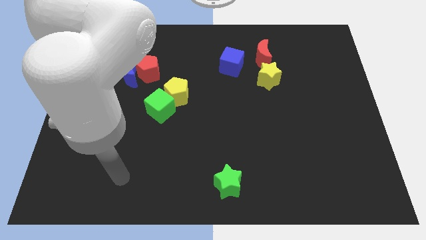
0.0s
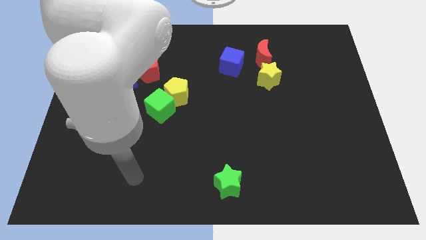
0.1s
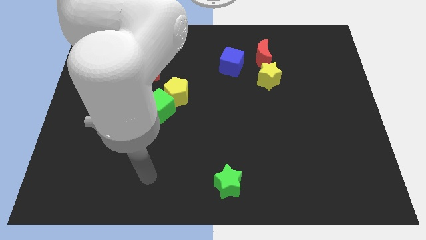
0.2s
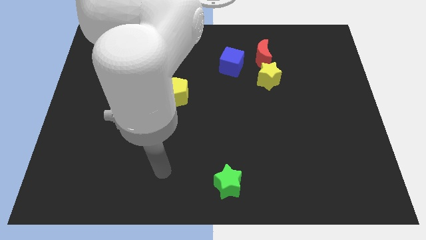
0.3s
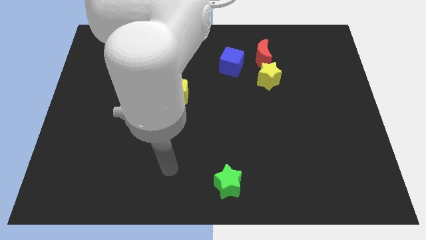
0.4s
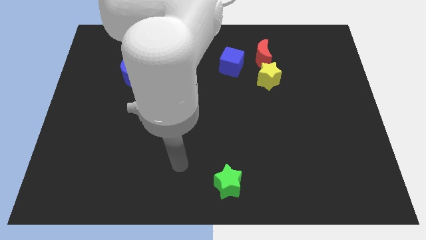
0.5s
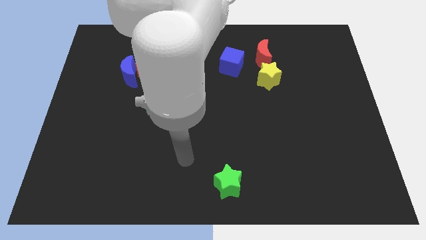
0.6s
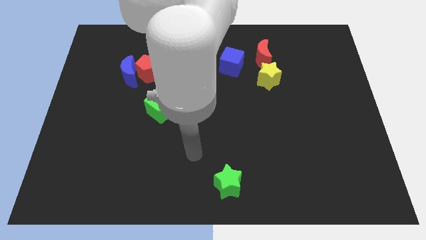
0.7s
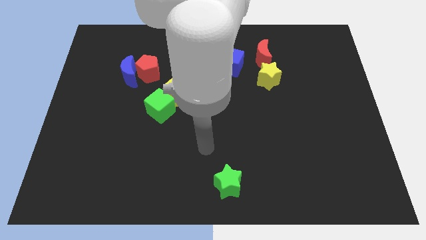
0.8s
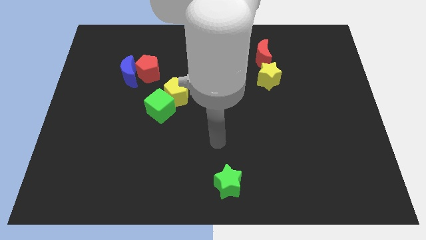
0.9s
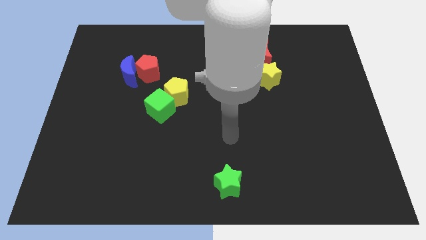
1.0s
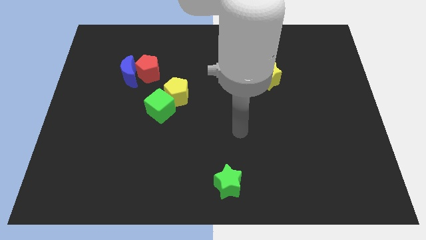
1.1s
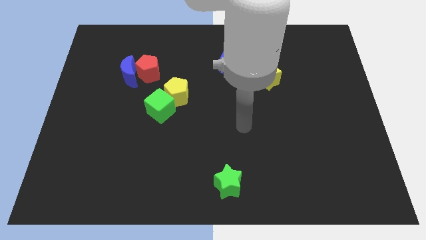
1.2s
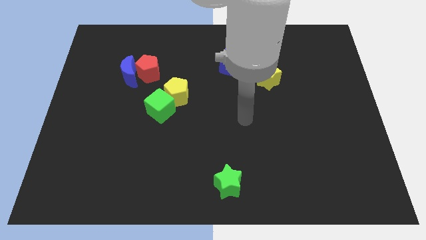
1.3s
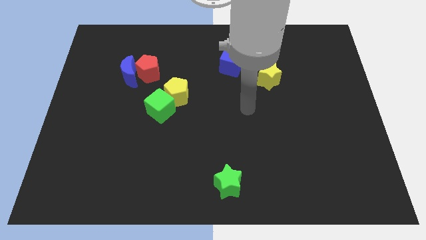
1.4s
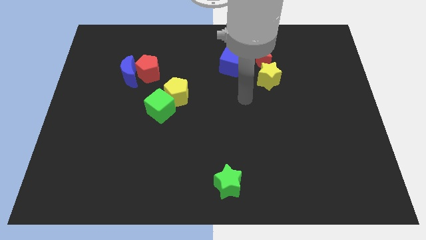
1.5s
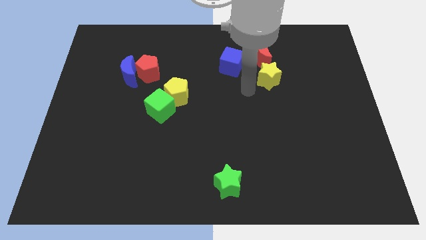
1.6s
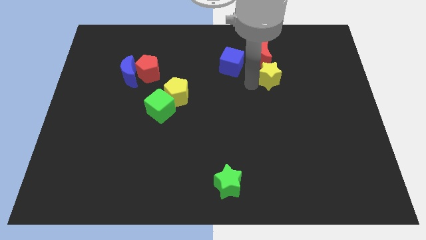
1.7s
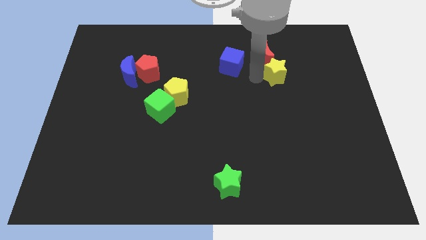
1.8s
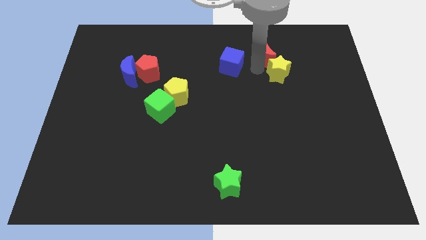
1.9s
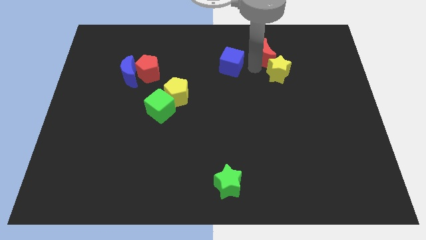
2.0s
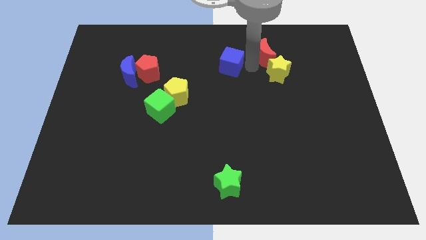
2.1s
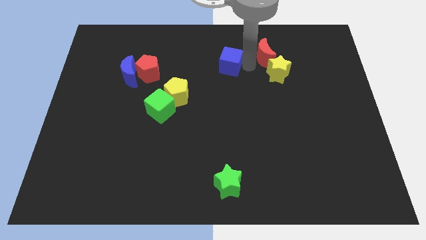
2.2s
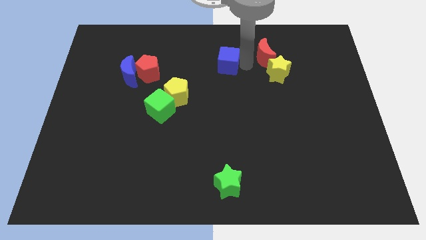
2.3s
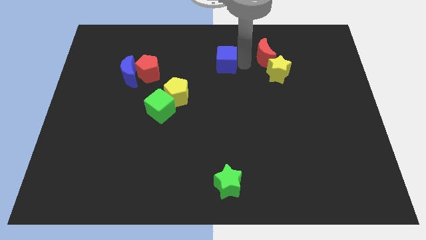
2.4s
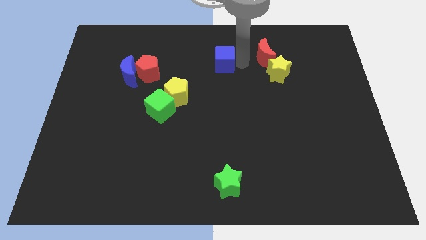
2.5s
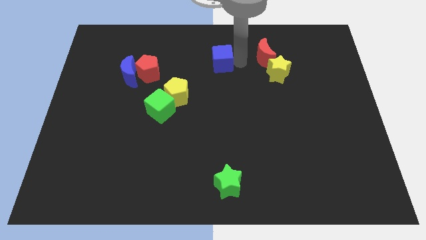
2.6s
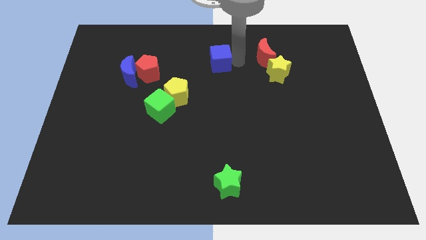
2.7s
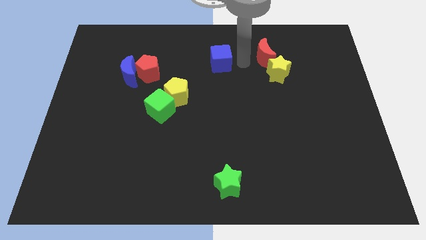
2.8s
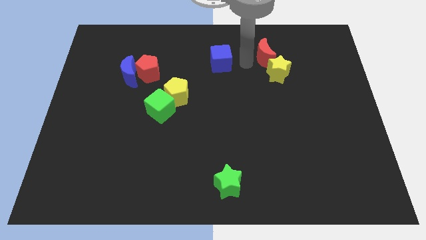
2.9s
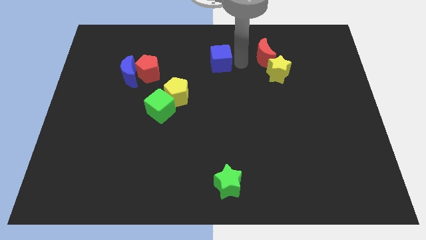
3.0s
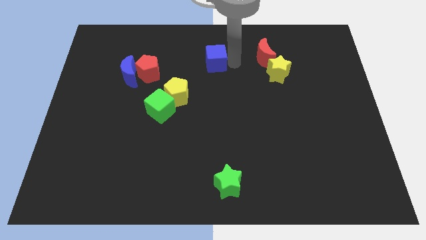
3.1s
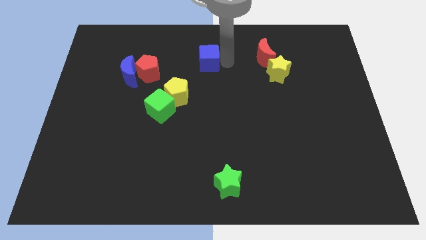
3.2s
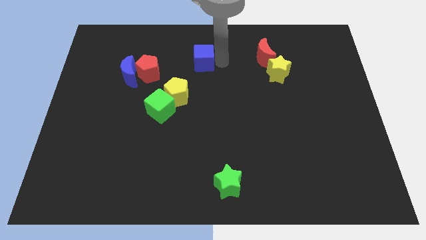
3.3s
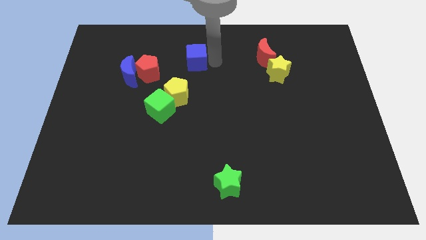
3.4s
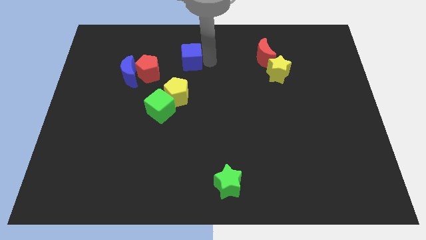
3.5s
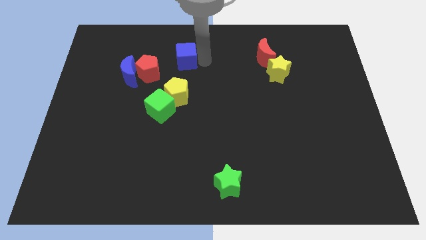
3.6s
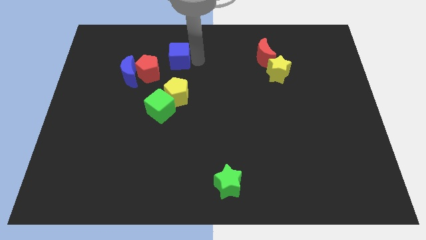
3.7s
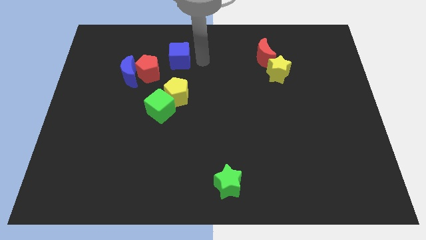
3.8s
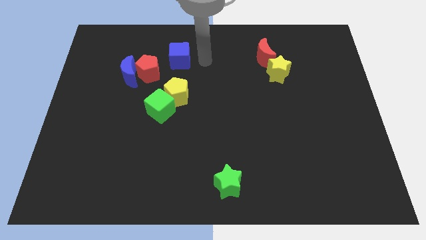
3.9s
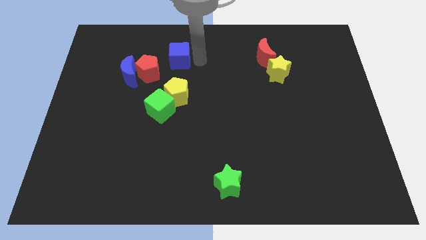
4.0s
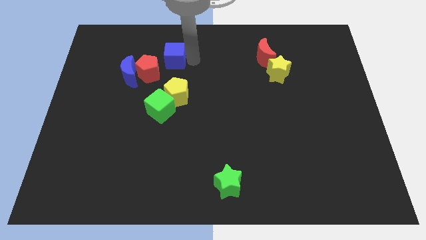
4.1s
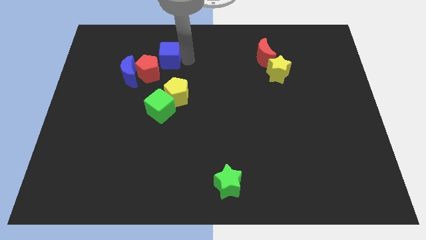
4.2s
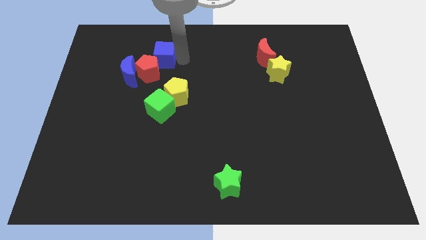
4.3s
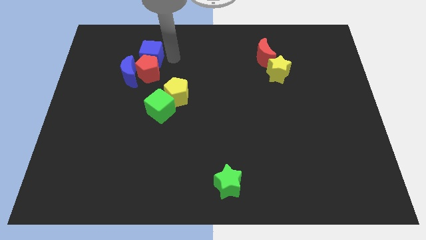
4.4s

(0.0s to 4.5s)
slide the blue cube to the left

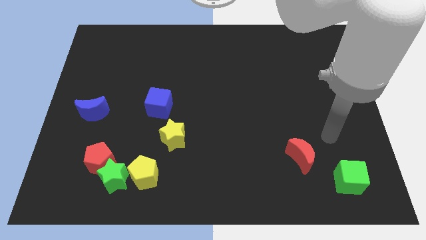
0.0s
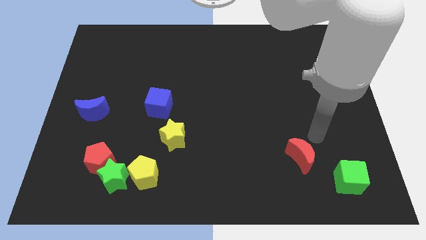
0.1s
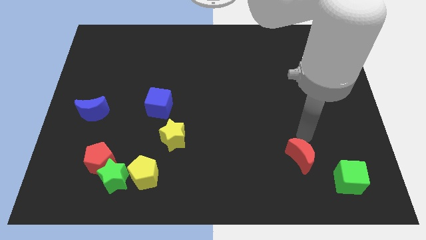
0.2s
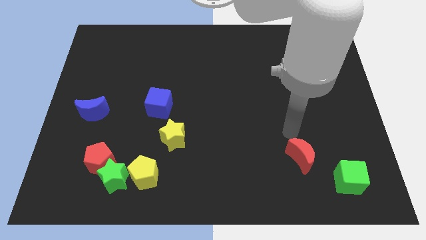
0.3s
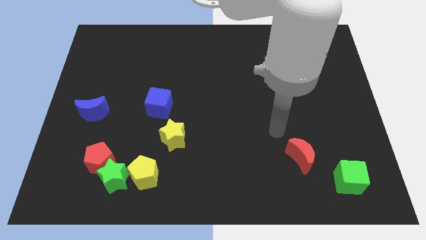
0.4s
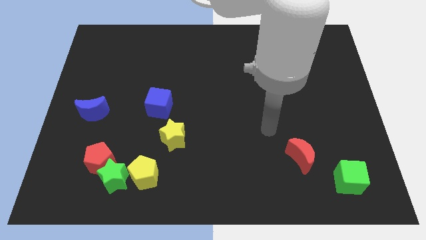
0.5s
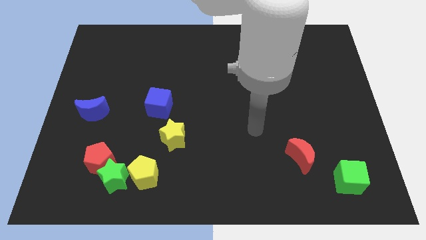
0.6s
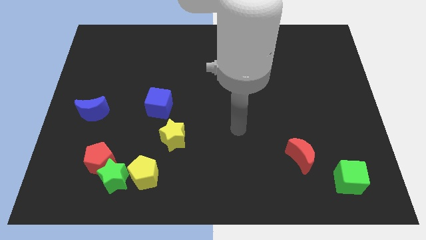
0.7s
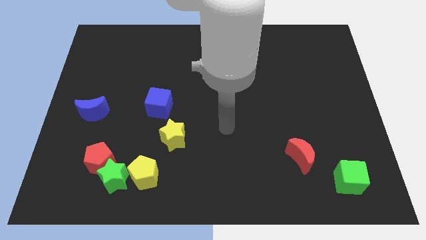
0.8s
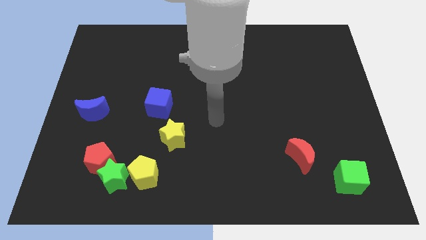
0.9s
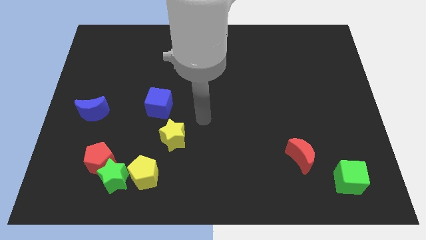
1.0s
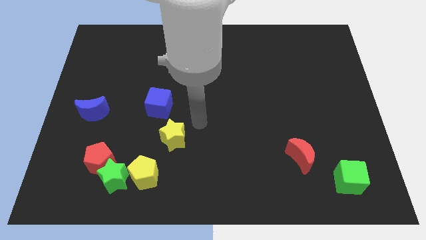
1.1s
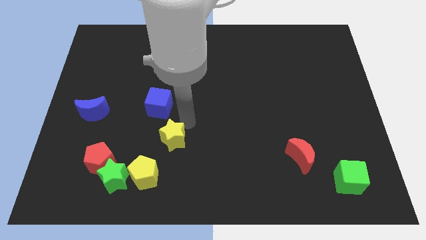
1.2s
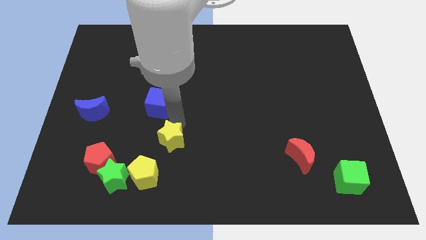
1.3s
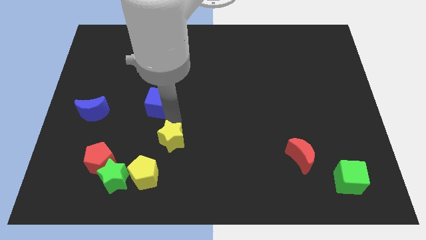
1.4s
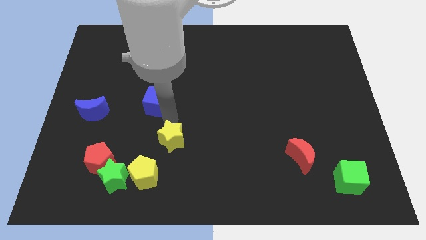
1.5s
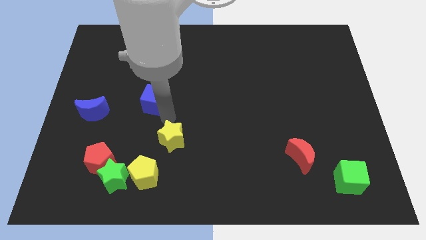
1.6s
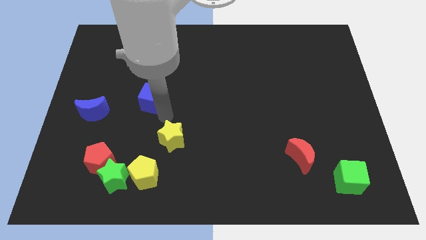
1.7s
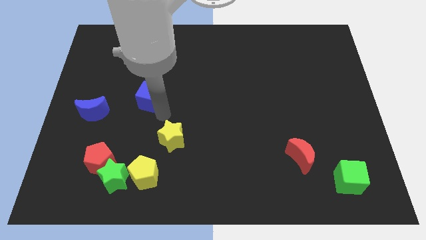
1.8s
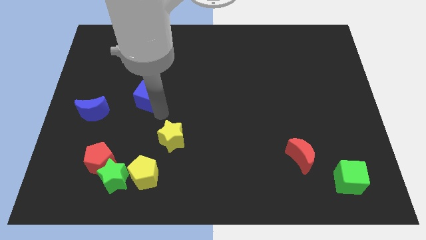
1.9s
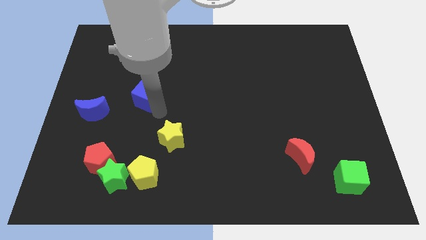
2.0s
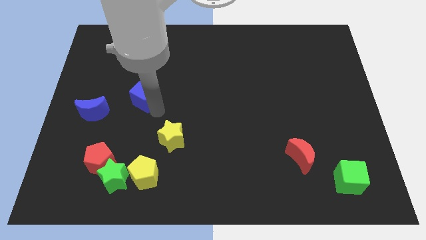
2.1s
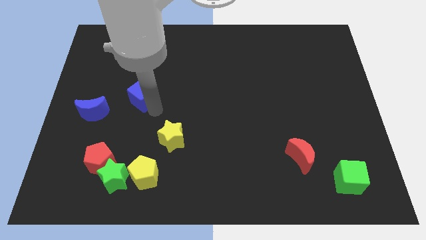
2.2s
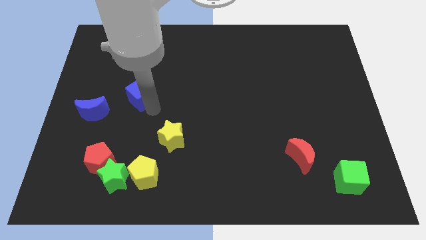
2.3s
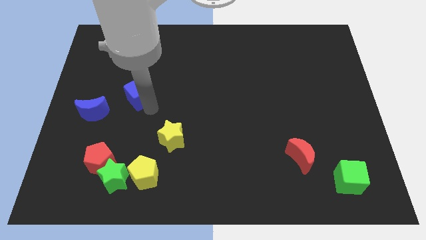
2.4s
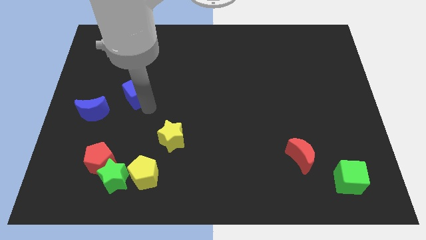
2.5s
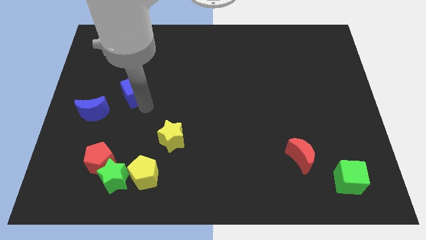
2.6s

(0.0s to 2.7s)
slightly push the blue cube diagonally upwards and to the left

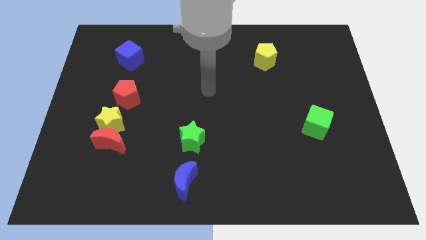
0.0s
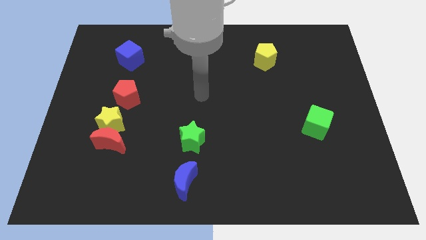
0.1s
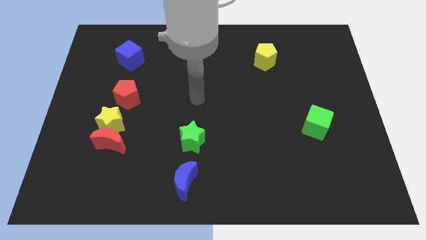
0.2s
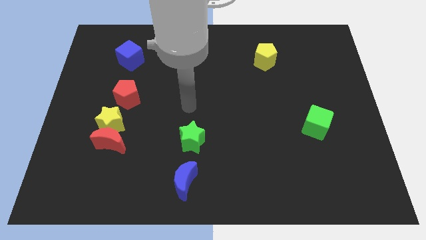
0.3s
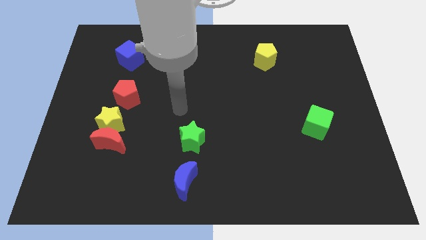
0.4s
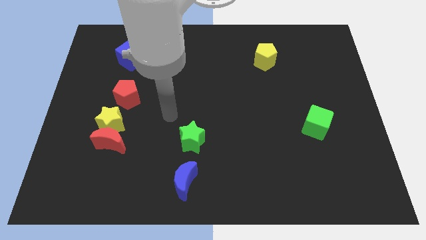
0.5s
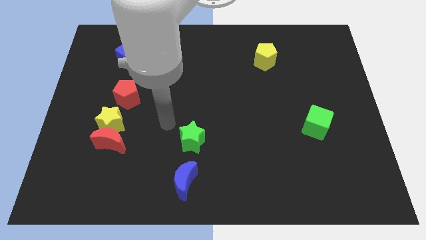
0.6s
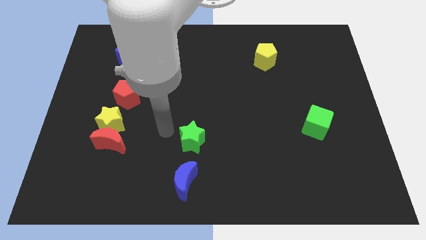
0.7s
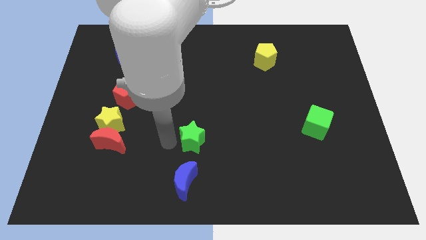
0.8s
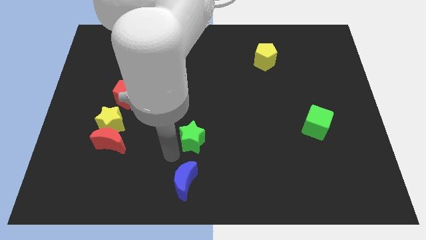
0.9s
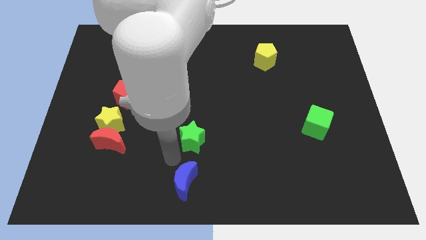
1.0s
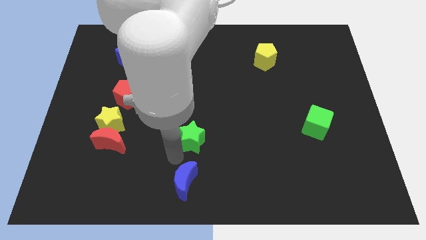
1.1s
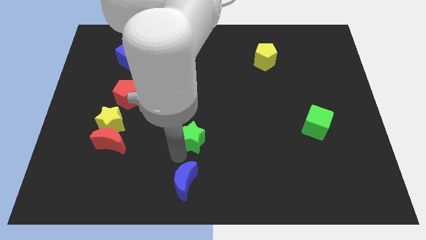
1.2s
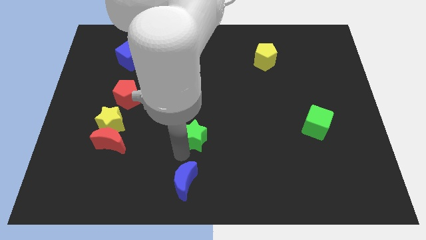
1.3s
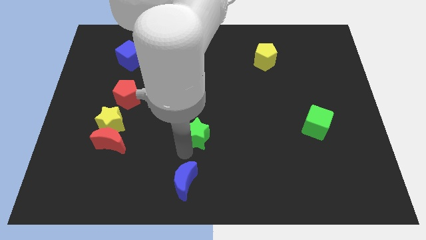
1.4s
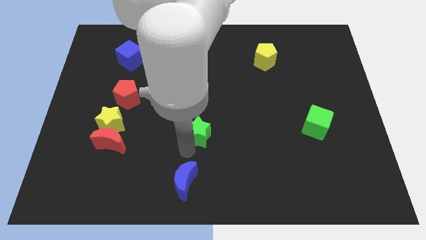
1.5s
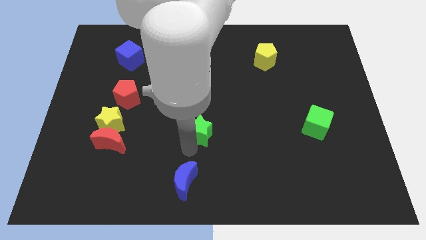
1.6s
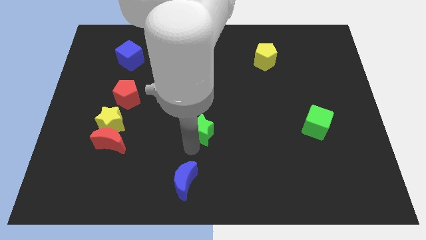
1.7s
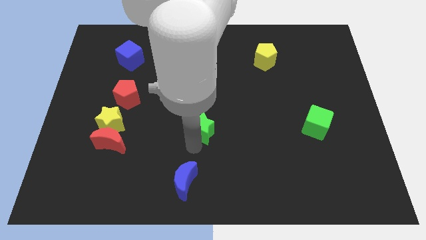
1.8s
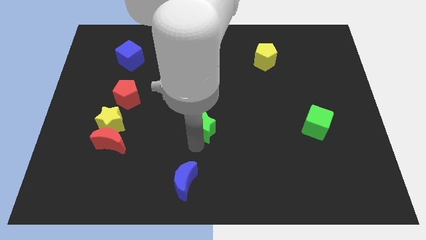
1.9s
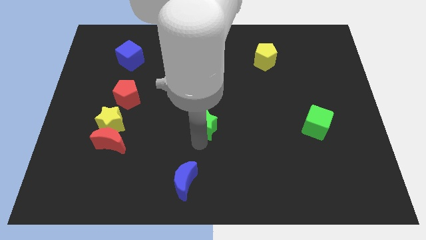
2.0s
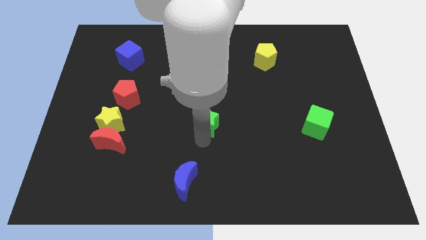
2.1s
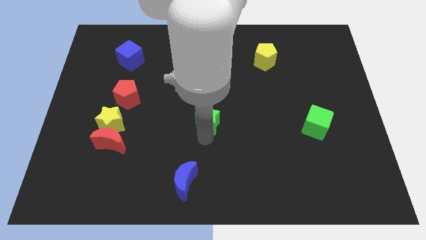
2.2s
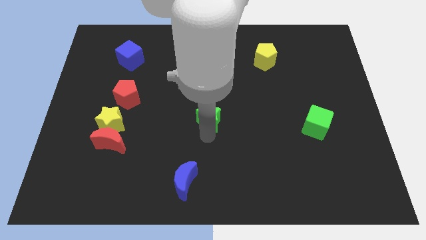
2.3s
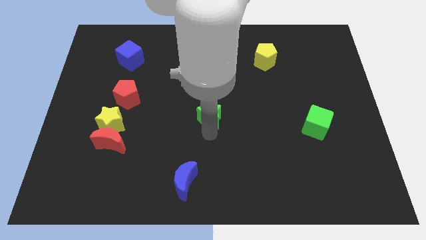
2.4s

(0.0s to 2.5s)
slightly push the green star up and then right
